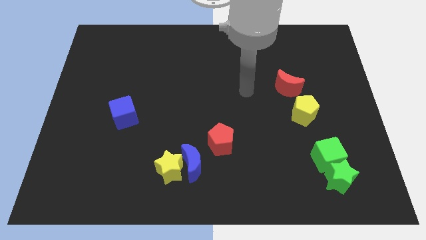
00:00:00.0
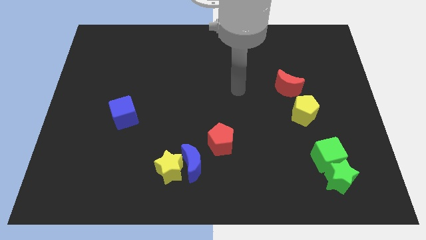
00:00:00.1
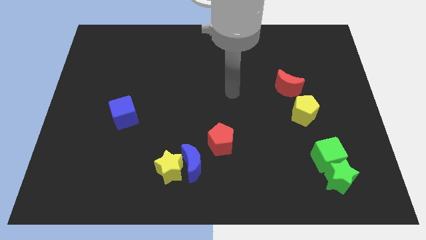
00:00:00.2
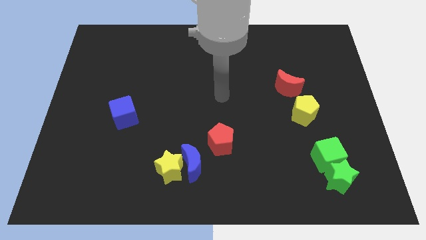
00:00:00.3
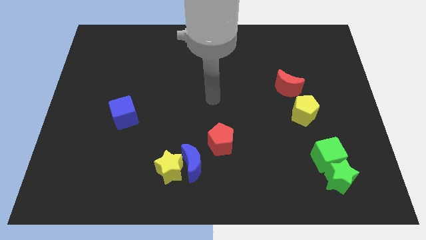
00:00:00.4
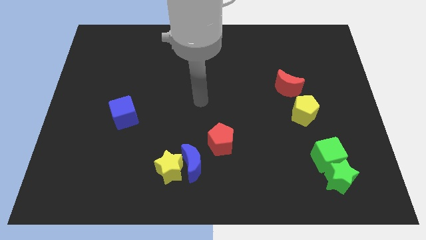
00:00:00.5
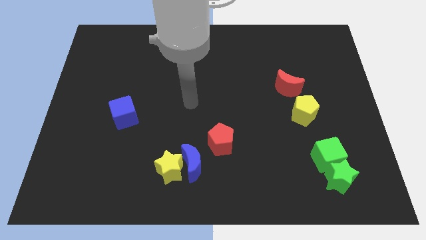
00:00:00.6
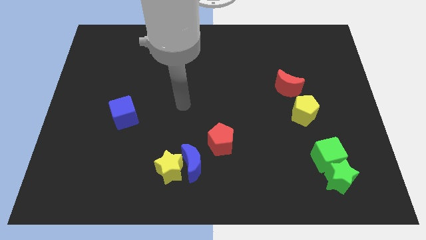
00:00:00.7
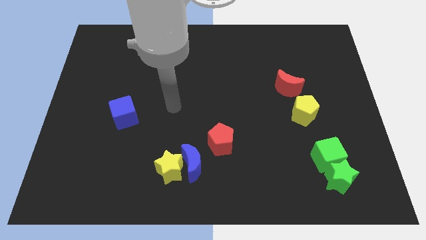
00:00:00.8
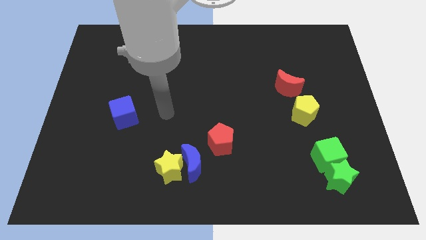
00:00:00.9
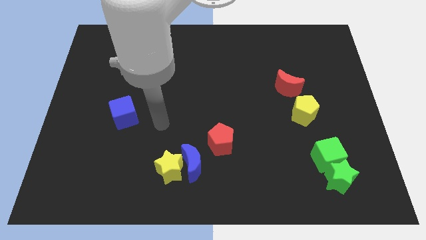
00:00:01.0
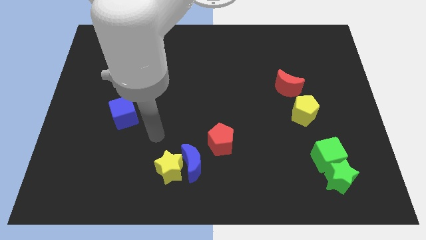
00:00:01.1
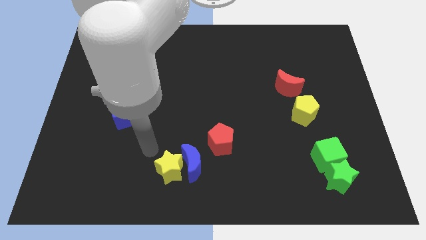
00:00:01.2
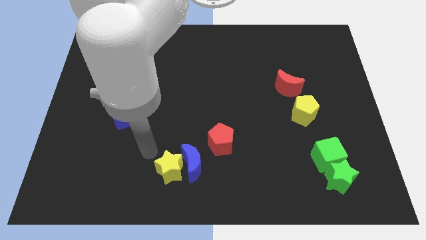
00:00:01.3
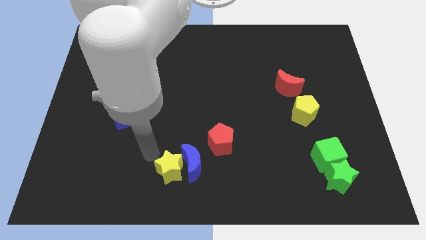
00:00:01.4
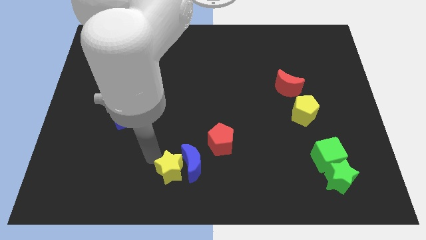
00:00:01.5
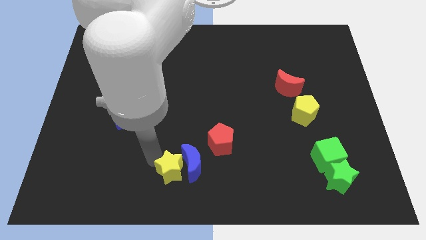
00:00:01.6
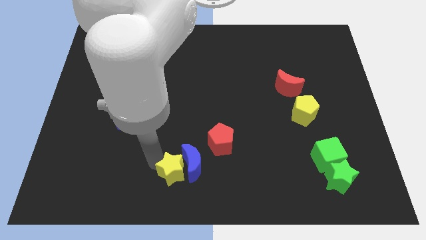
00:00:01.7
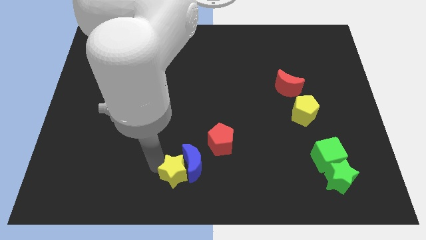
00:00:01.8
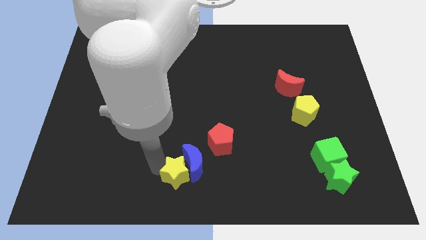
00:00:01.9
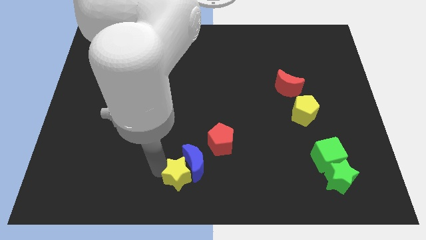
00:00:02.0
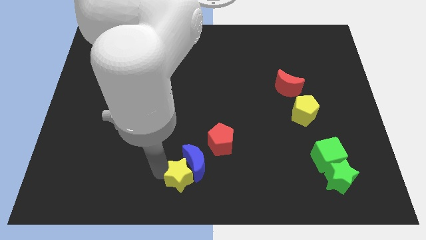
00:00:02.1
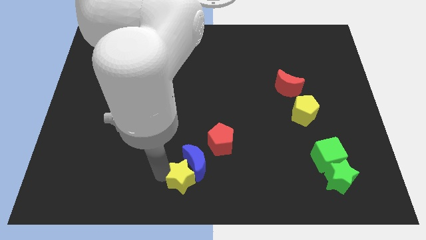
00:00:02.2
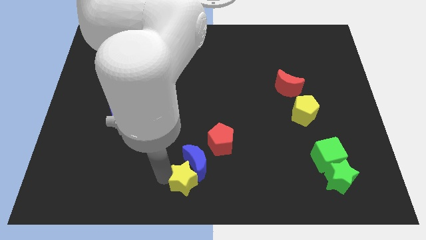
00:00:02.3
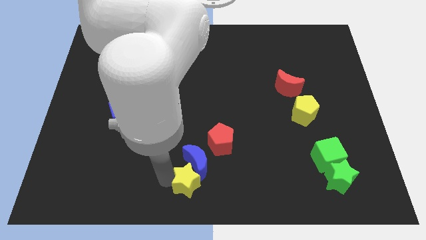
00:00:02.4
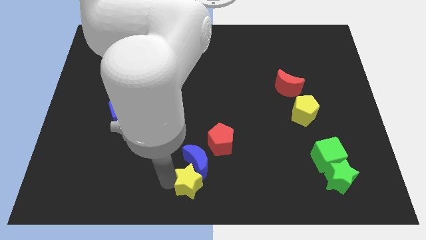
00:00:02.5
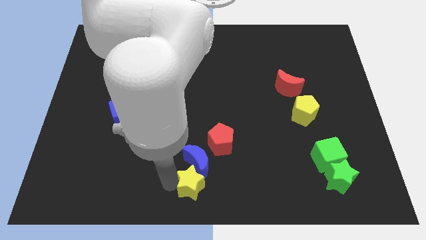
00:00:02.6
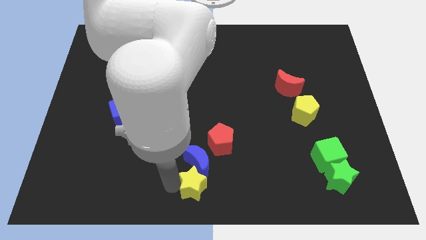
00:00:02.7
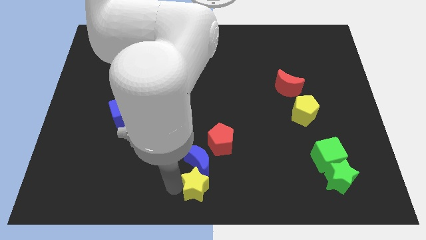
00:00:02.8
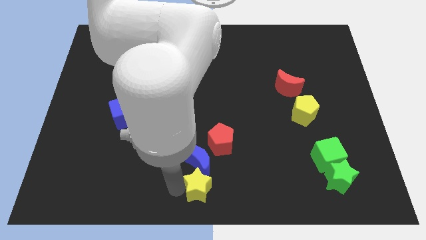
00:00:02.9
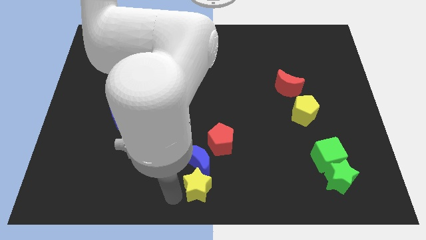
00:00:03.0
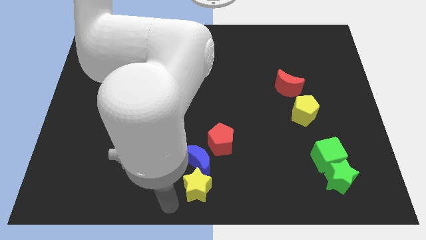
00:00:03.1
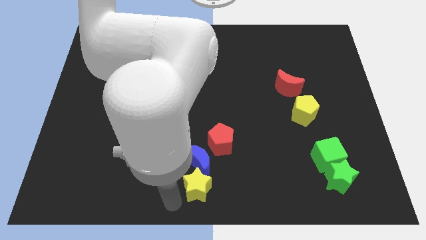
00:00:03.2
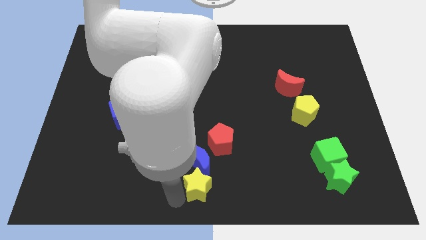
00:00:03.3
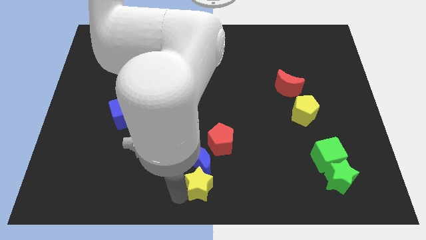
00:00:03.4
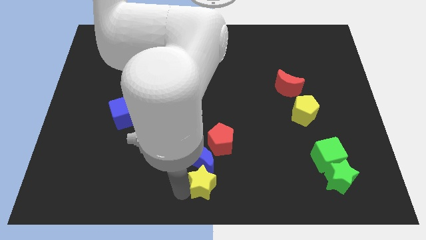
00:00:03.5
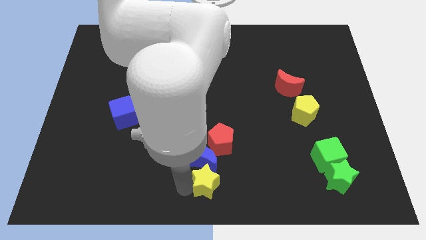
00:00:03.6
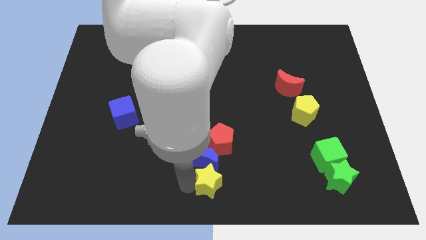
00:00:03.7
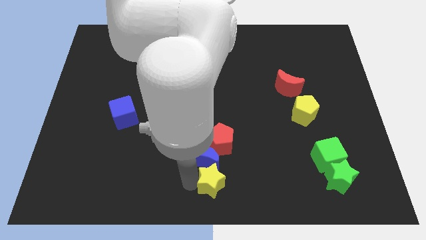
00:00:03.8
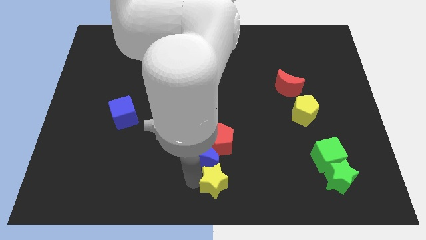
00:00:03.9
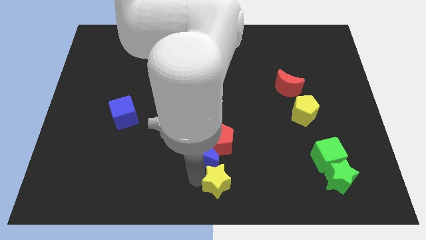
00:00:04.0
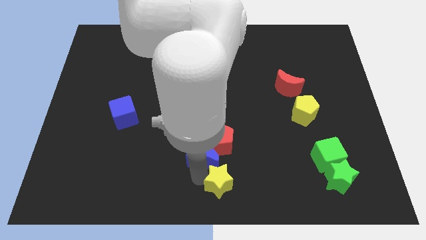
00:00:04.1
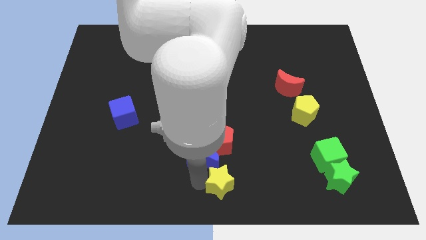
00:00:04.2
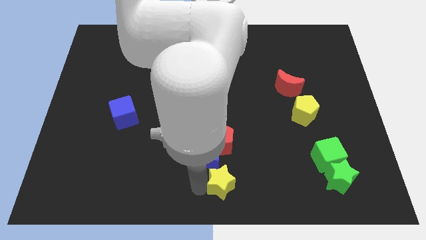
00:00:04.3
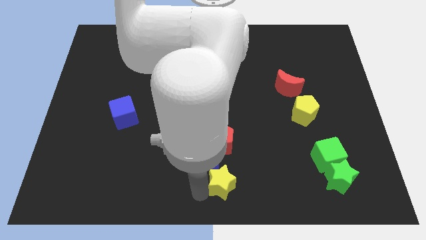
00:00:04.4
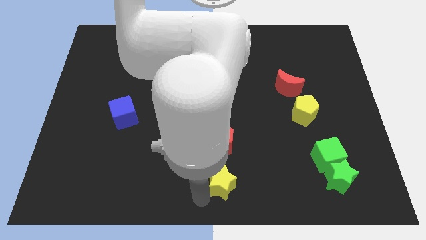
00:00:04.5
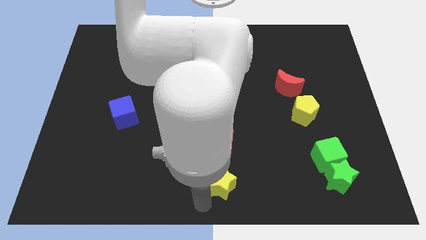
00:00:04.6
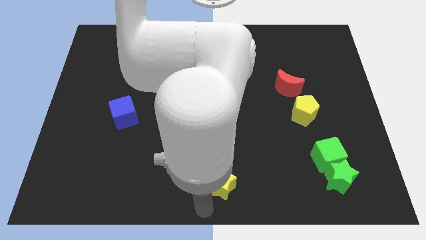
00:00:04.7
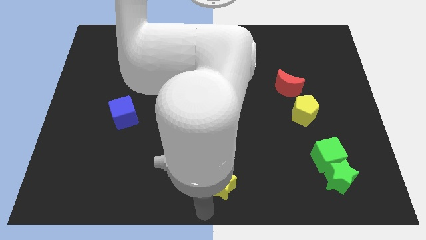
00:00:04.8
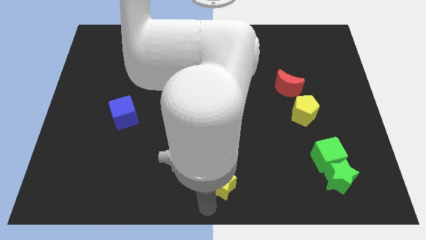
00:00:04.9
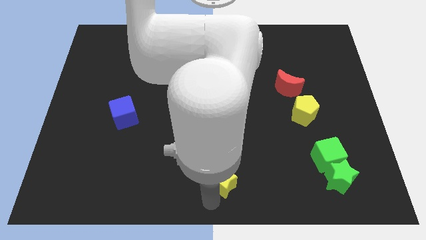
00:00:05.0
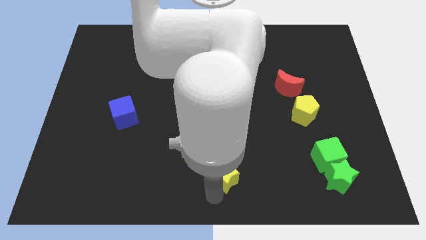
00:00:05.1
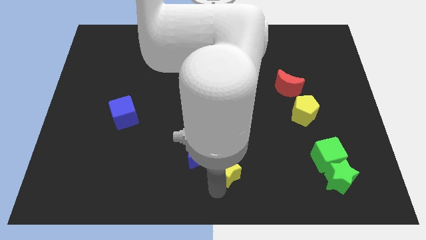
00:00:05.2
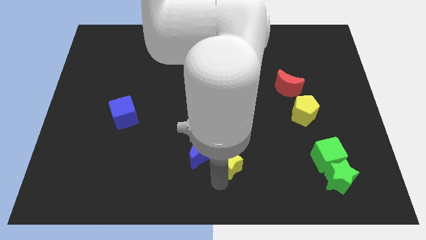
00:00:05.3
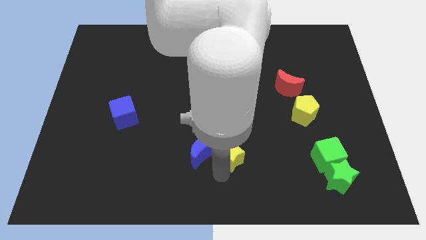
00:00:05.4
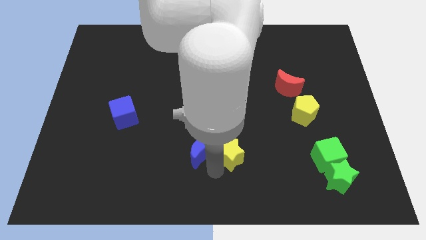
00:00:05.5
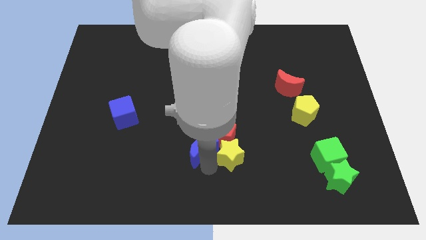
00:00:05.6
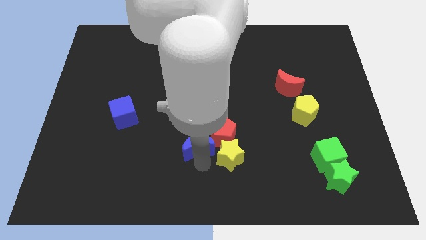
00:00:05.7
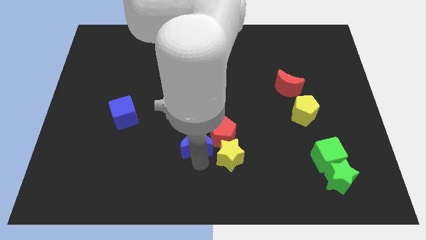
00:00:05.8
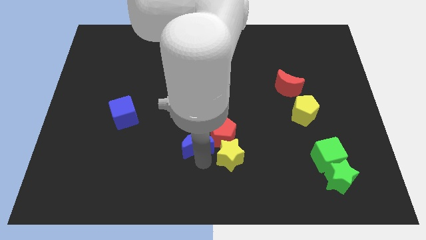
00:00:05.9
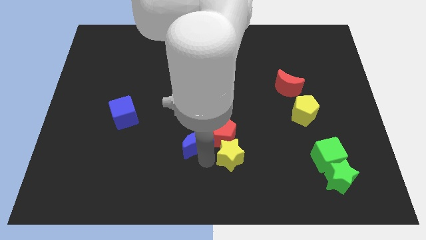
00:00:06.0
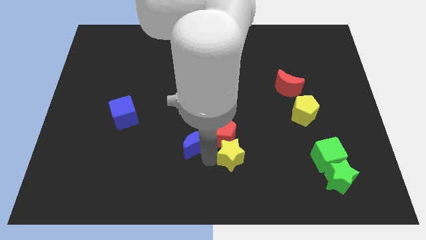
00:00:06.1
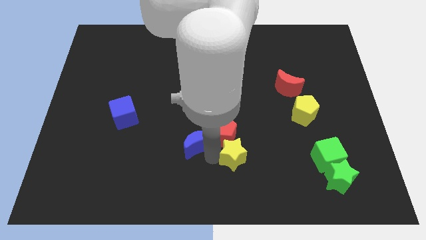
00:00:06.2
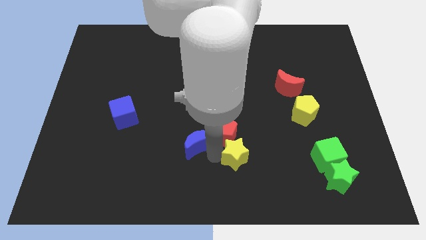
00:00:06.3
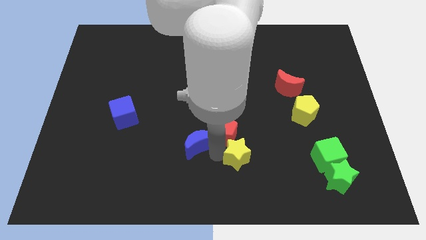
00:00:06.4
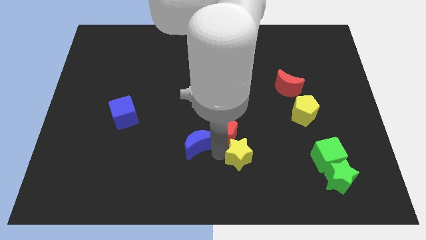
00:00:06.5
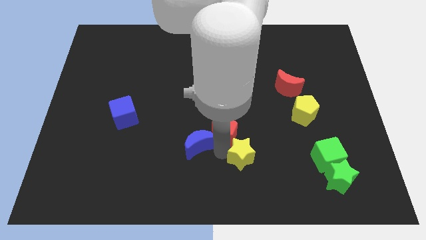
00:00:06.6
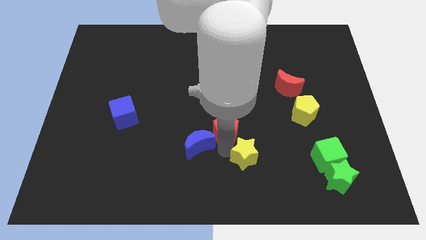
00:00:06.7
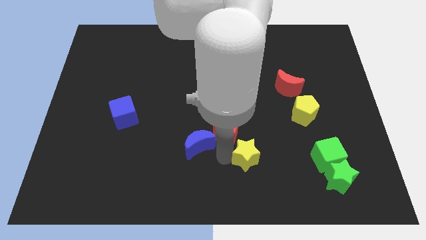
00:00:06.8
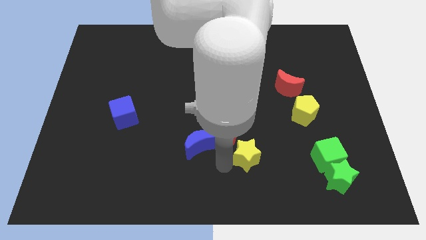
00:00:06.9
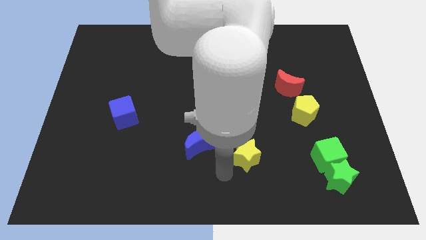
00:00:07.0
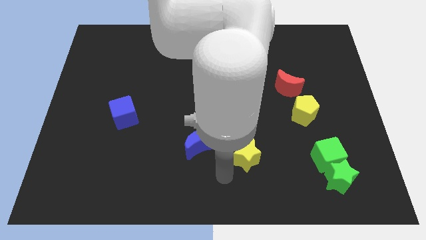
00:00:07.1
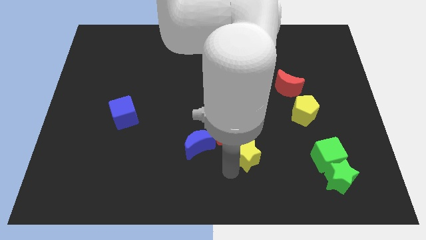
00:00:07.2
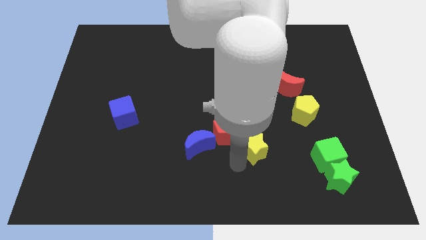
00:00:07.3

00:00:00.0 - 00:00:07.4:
slide the yellow star just right of the red pentagon
